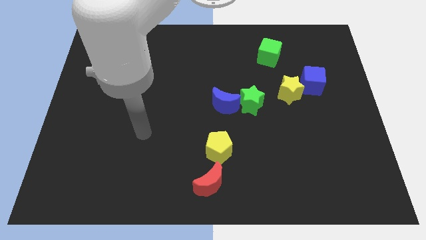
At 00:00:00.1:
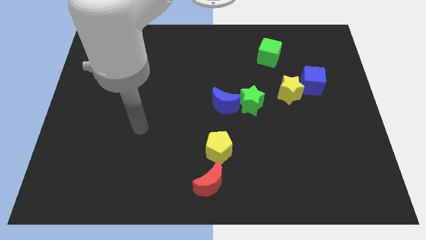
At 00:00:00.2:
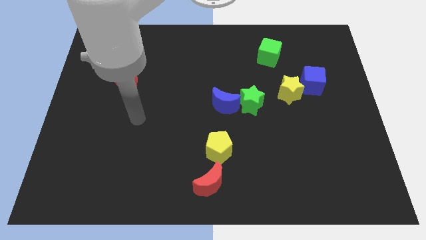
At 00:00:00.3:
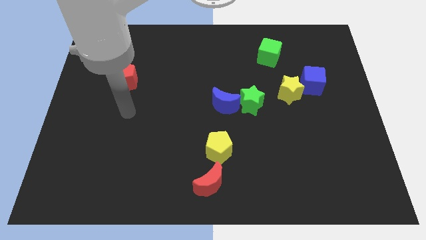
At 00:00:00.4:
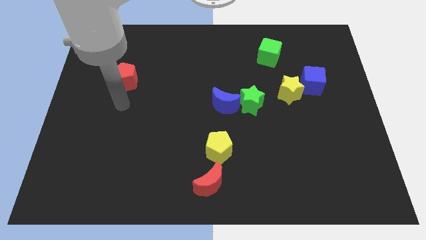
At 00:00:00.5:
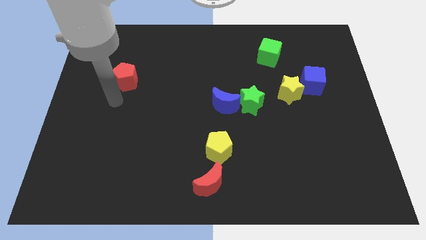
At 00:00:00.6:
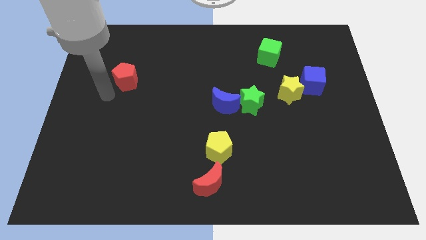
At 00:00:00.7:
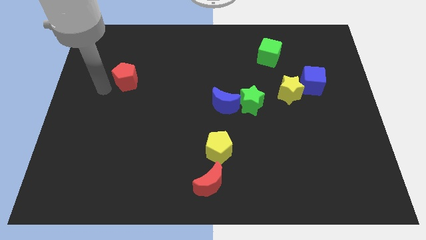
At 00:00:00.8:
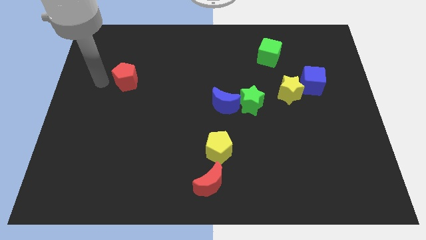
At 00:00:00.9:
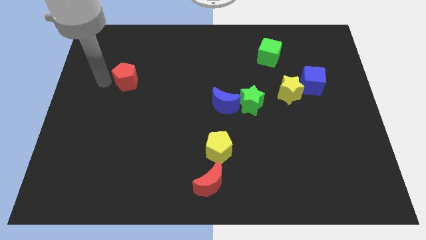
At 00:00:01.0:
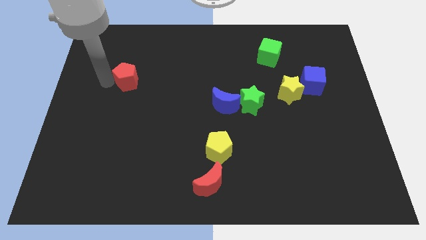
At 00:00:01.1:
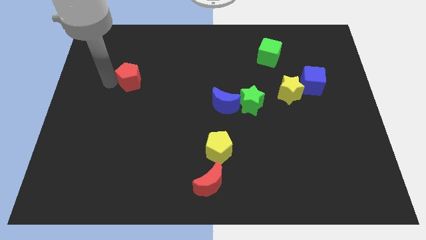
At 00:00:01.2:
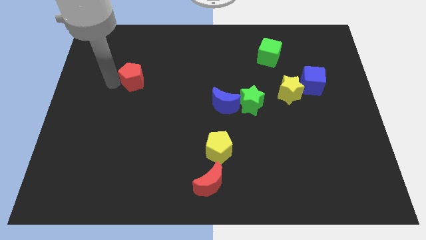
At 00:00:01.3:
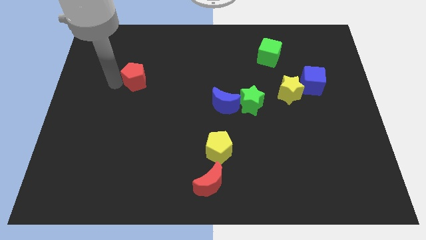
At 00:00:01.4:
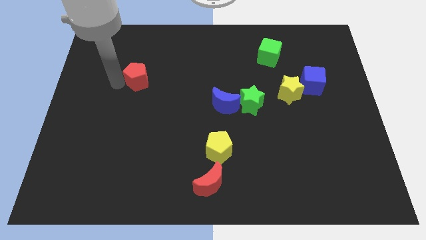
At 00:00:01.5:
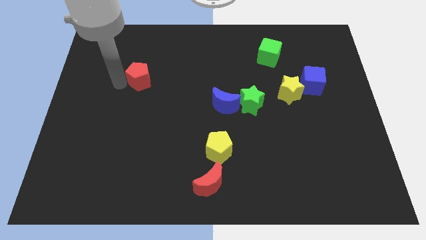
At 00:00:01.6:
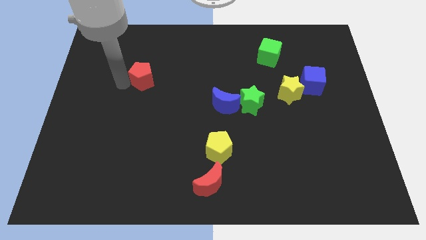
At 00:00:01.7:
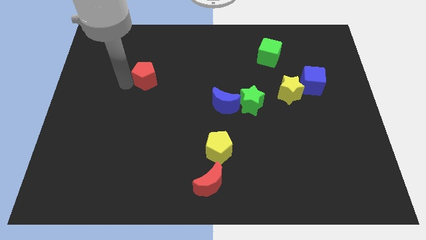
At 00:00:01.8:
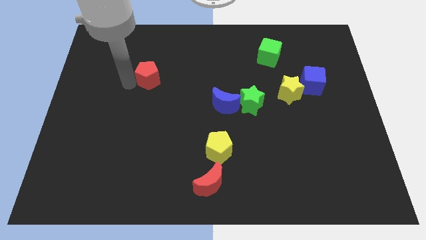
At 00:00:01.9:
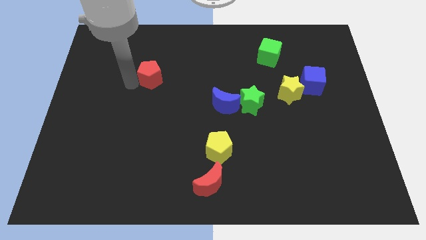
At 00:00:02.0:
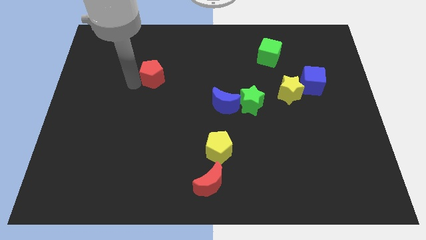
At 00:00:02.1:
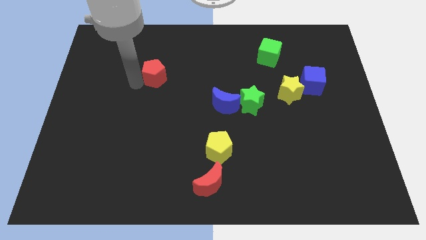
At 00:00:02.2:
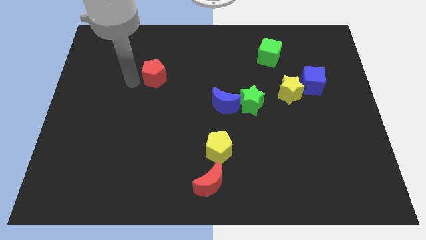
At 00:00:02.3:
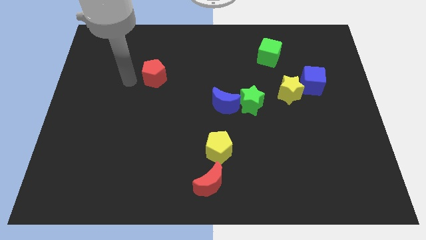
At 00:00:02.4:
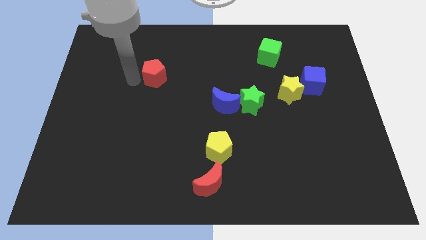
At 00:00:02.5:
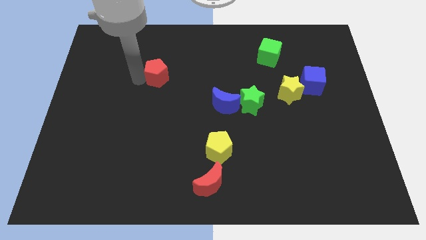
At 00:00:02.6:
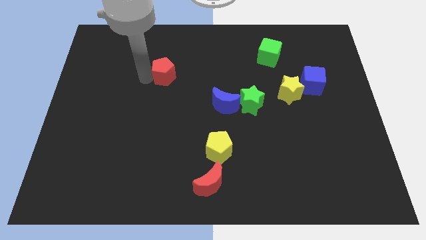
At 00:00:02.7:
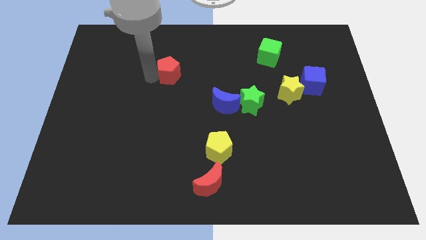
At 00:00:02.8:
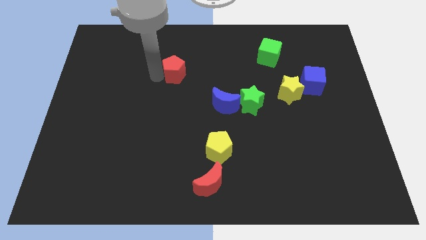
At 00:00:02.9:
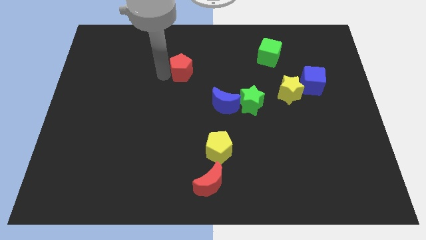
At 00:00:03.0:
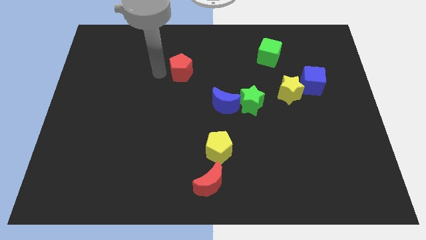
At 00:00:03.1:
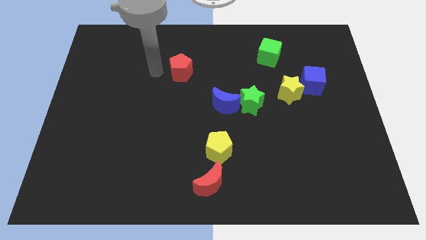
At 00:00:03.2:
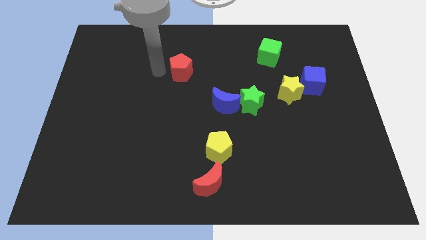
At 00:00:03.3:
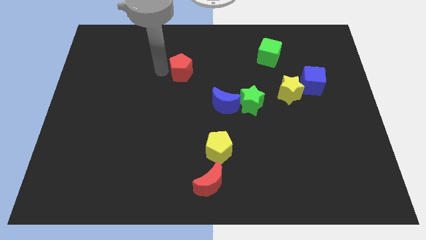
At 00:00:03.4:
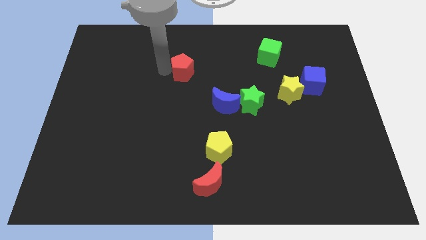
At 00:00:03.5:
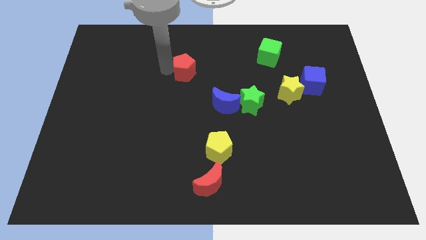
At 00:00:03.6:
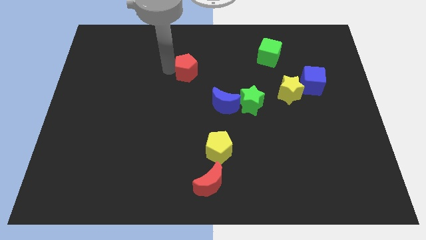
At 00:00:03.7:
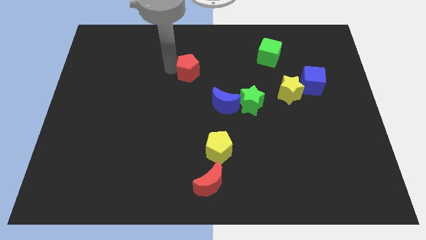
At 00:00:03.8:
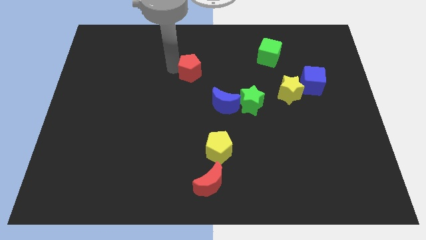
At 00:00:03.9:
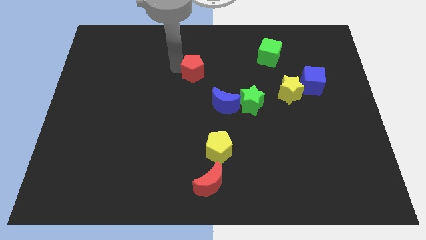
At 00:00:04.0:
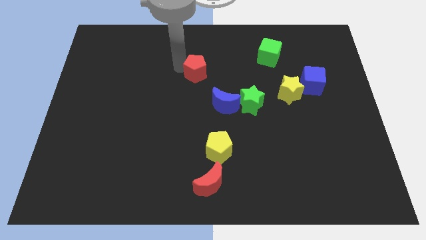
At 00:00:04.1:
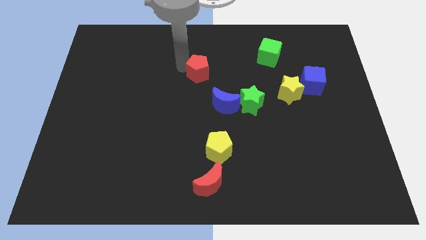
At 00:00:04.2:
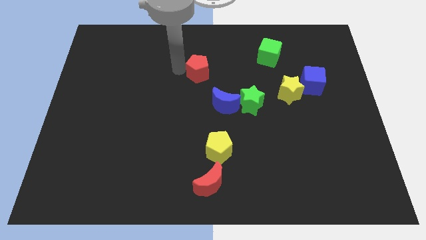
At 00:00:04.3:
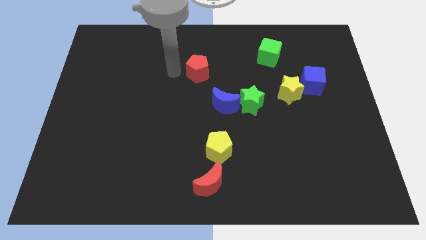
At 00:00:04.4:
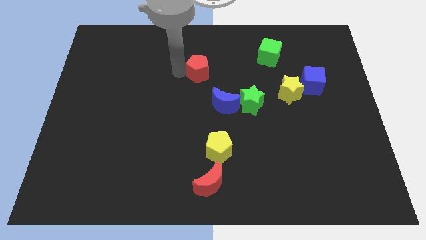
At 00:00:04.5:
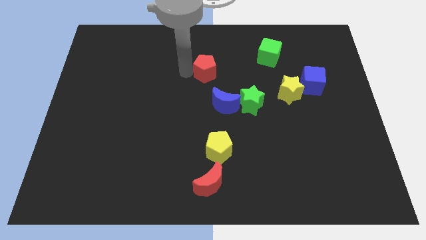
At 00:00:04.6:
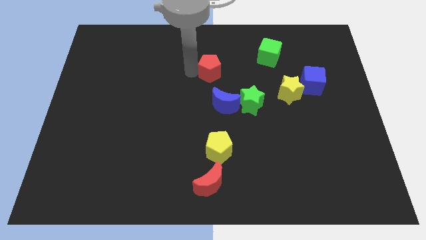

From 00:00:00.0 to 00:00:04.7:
slide the red pentagon to the right

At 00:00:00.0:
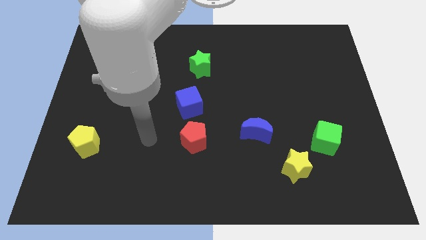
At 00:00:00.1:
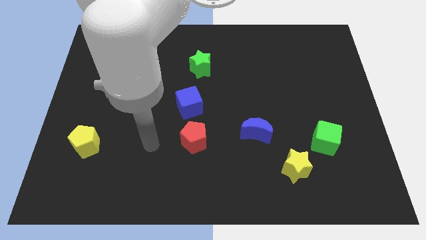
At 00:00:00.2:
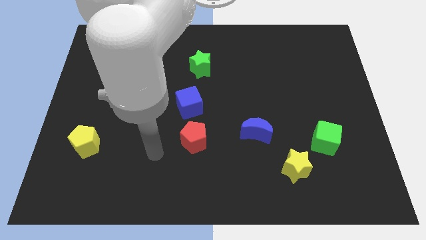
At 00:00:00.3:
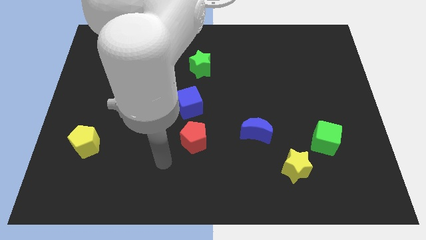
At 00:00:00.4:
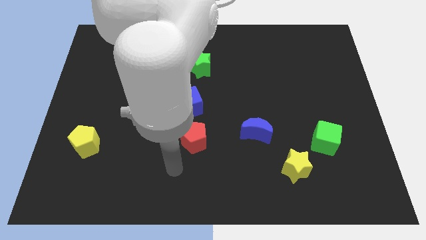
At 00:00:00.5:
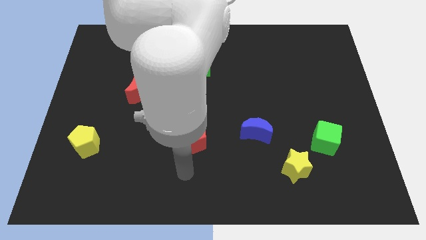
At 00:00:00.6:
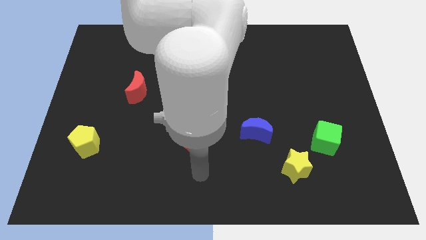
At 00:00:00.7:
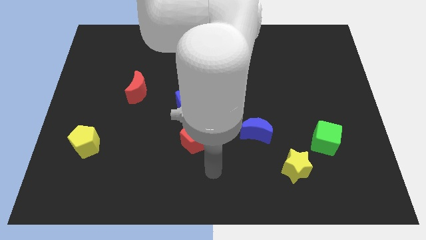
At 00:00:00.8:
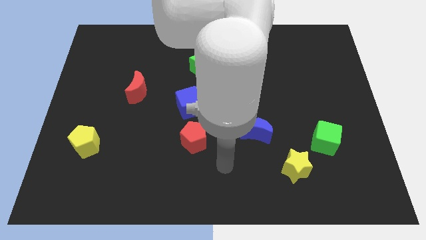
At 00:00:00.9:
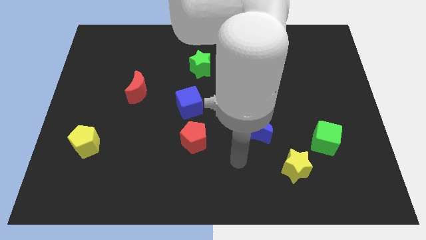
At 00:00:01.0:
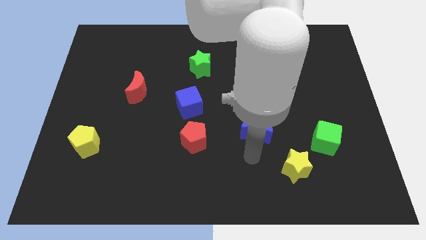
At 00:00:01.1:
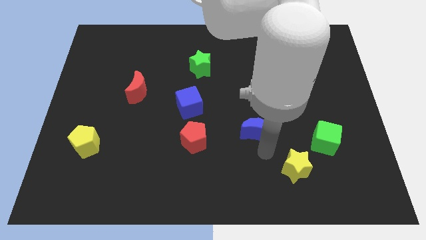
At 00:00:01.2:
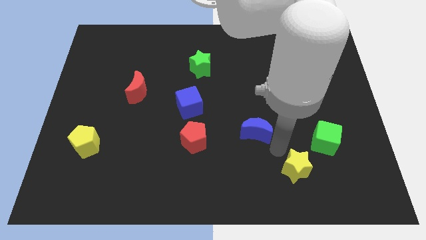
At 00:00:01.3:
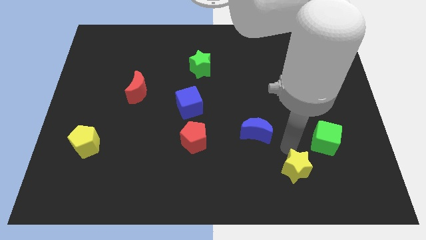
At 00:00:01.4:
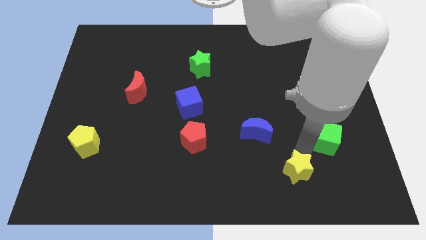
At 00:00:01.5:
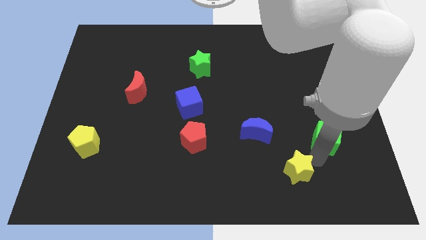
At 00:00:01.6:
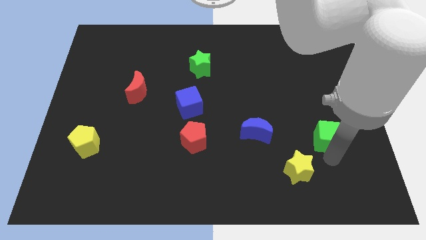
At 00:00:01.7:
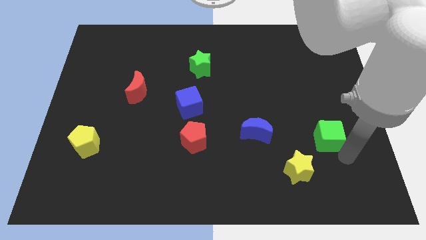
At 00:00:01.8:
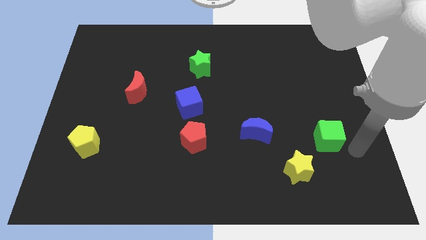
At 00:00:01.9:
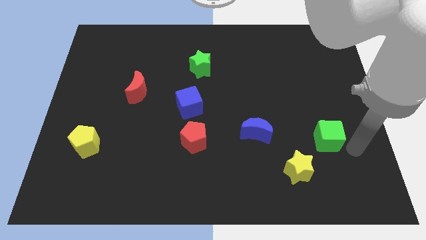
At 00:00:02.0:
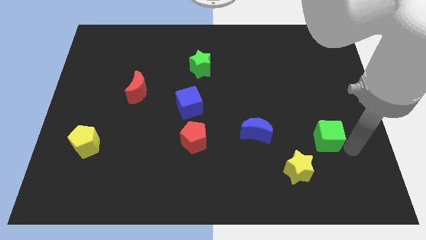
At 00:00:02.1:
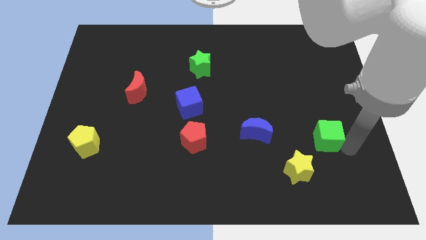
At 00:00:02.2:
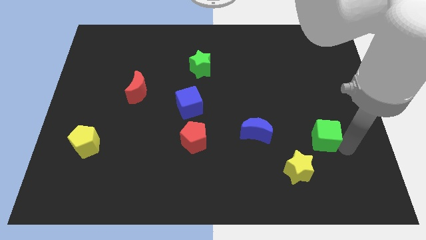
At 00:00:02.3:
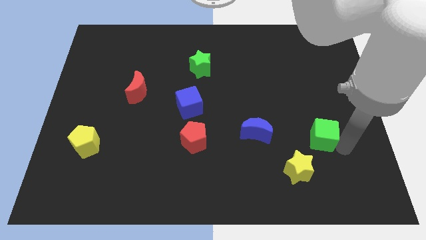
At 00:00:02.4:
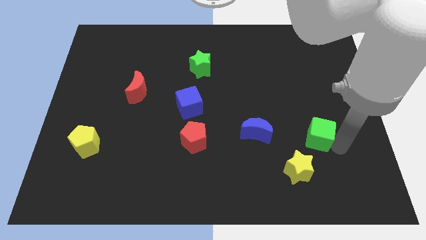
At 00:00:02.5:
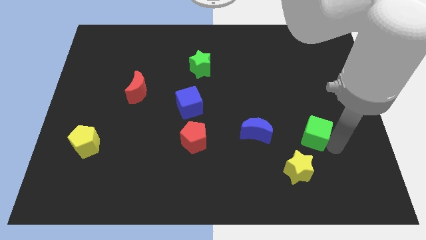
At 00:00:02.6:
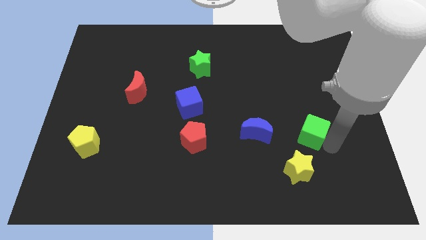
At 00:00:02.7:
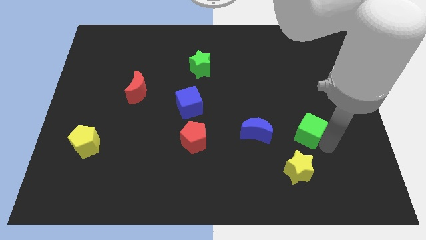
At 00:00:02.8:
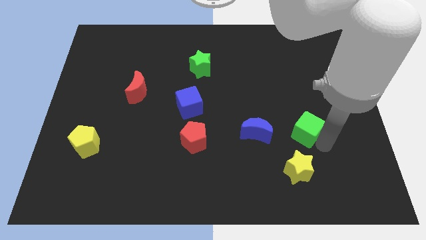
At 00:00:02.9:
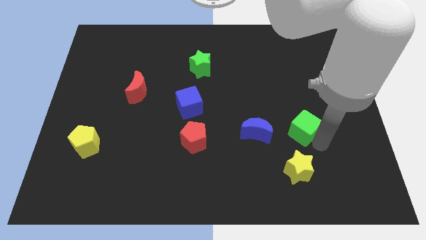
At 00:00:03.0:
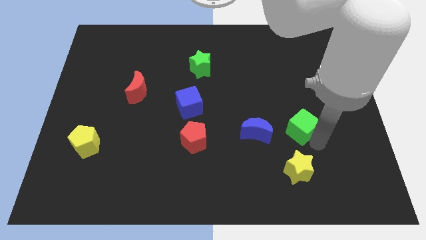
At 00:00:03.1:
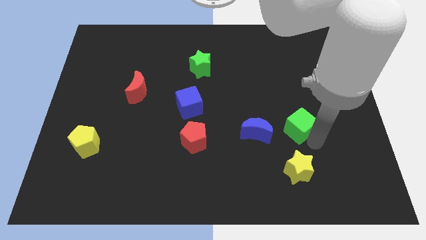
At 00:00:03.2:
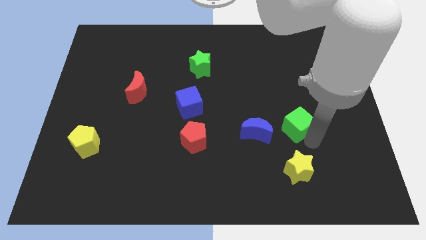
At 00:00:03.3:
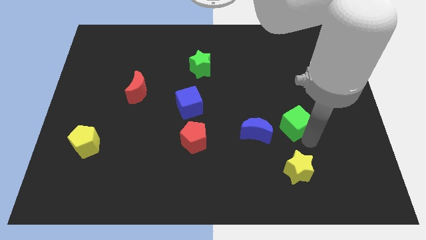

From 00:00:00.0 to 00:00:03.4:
slide the green cube up and to the left diagonally slightly
